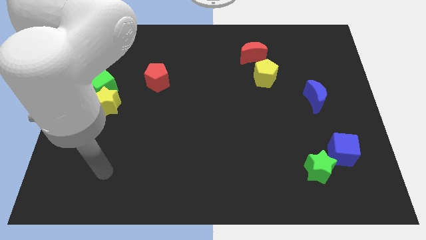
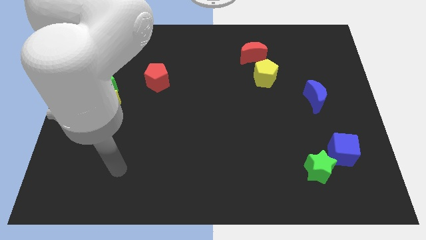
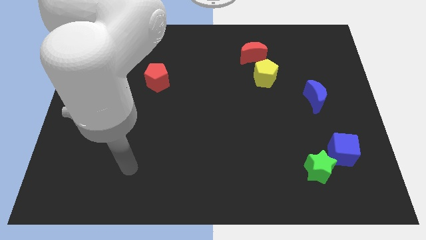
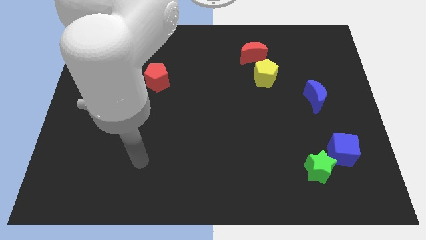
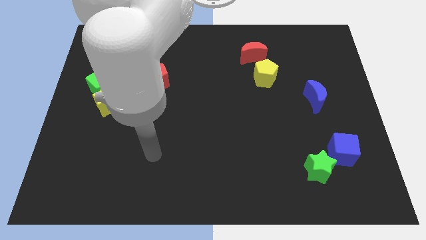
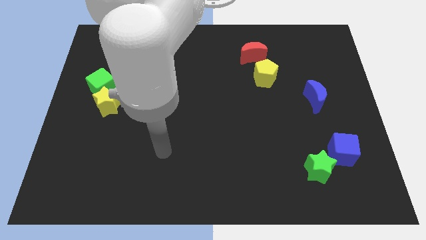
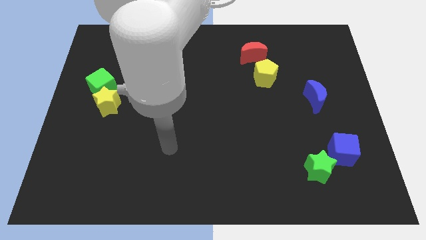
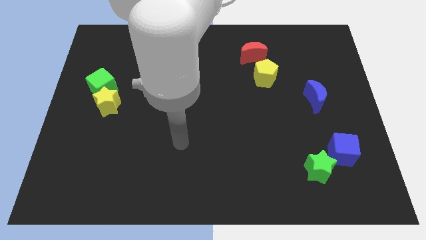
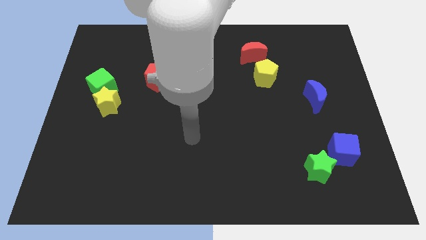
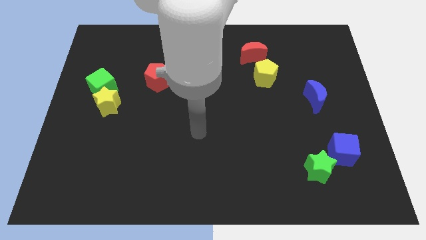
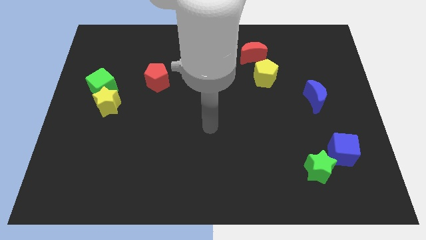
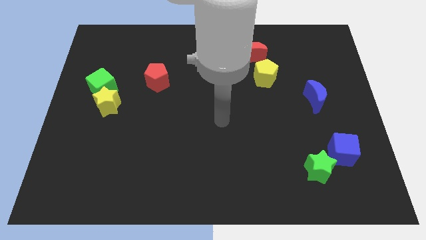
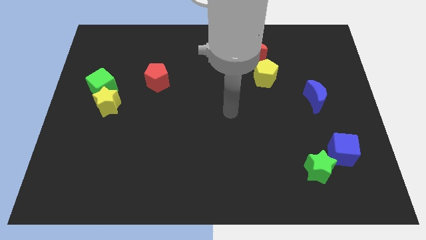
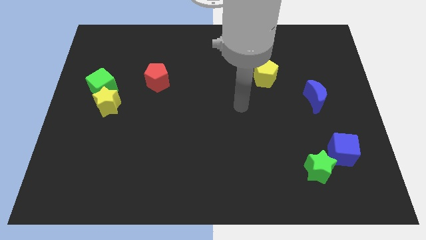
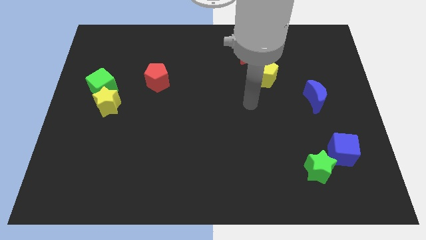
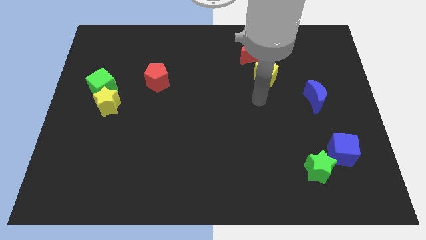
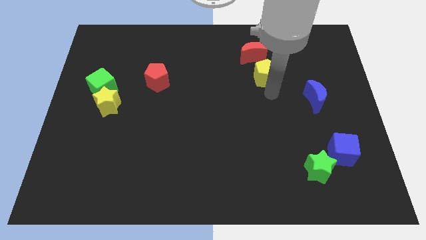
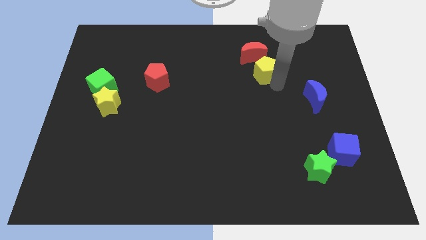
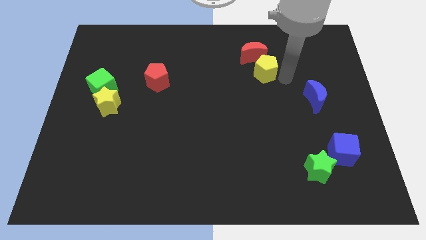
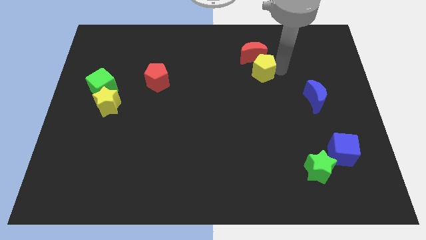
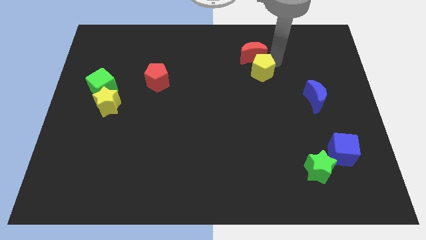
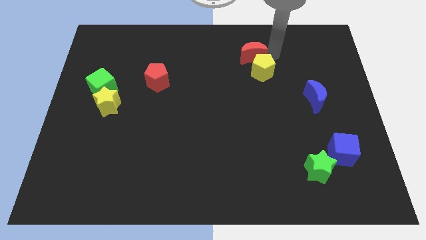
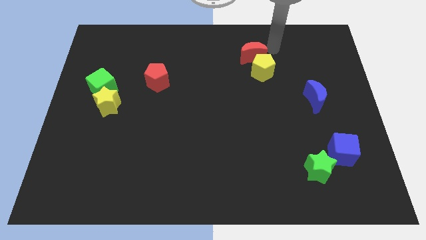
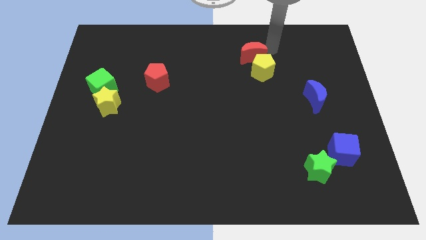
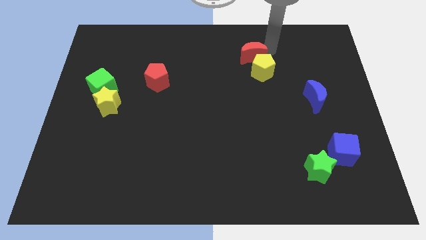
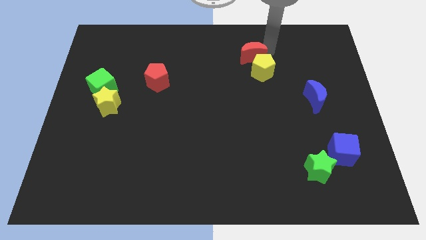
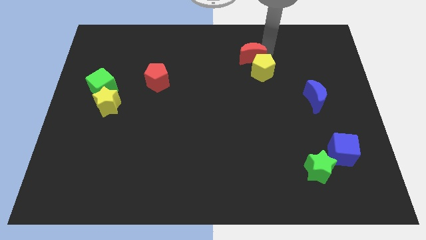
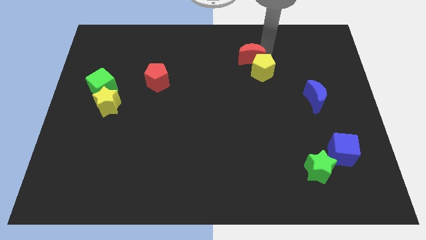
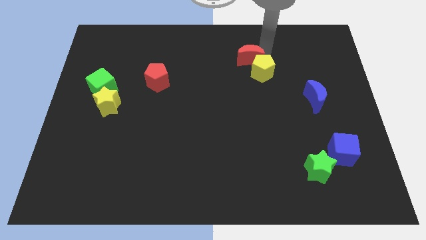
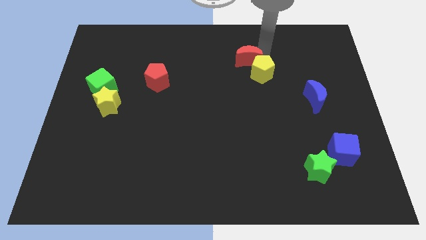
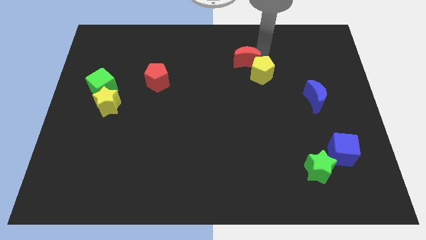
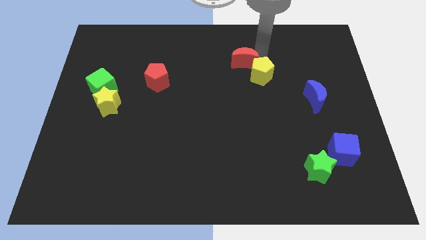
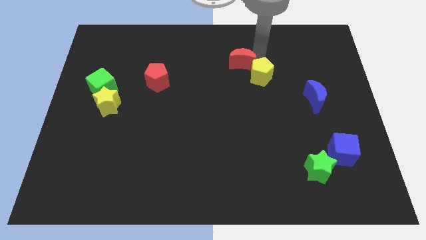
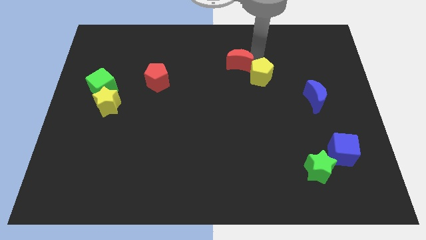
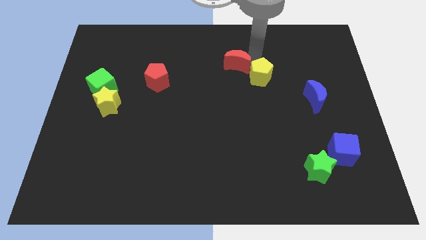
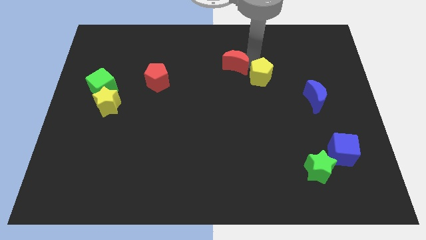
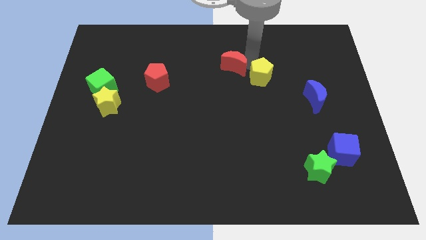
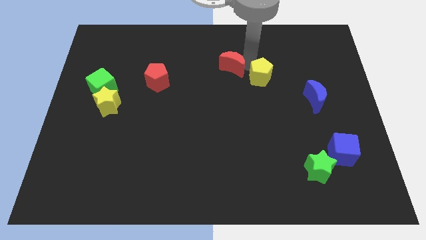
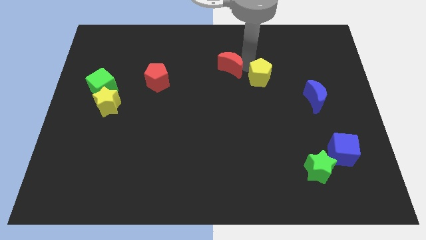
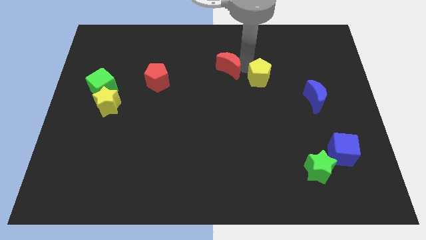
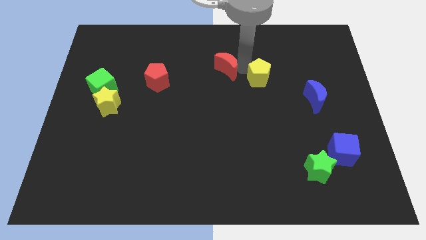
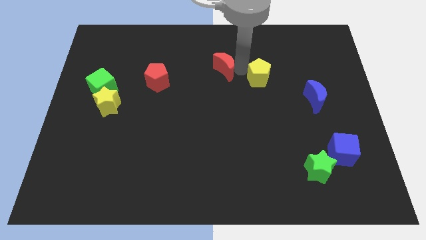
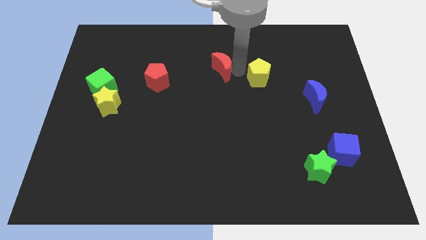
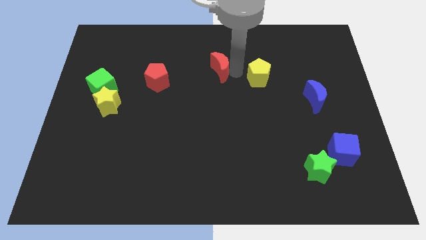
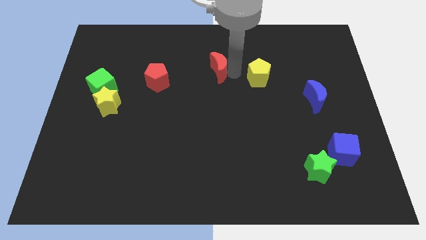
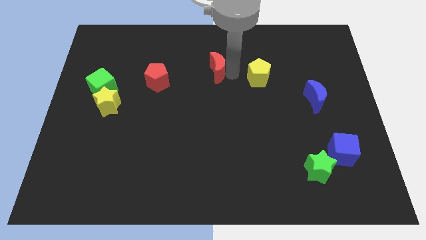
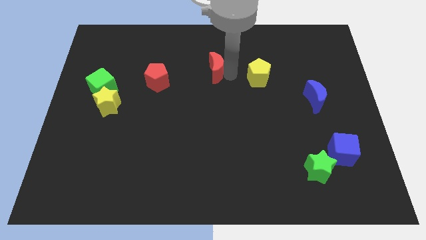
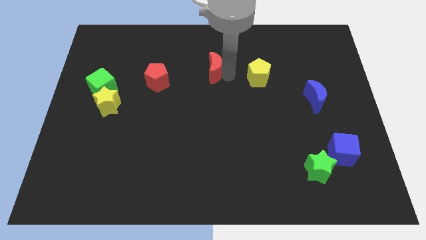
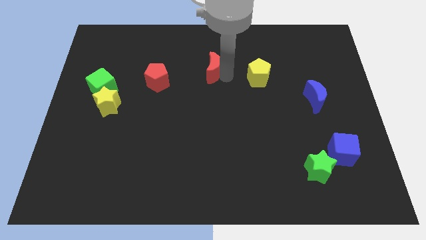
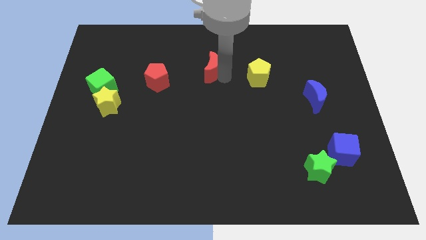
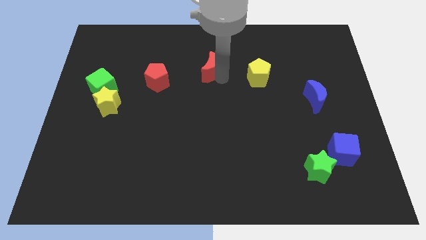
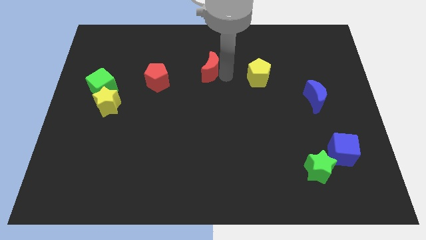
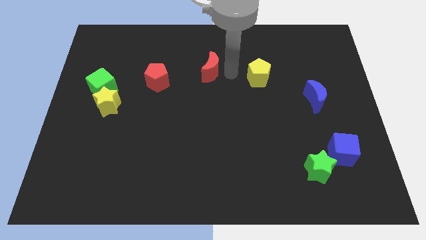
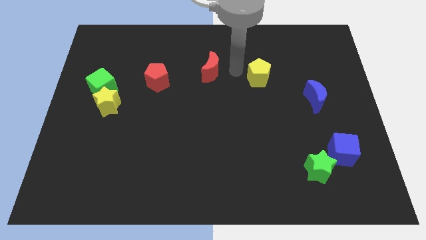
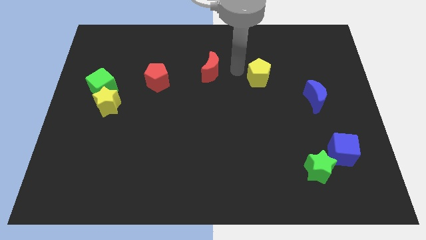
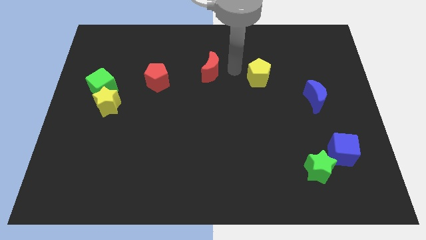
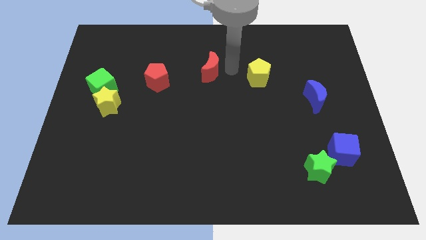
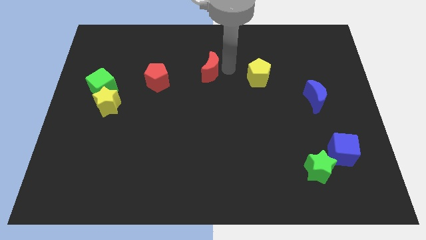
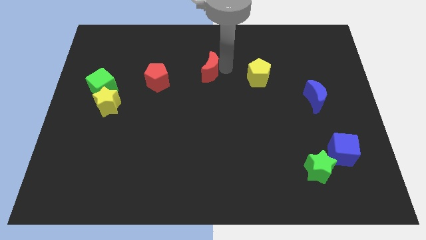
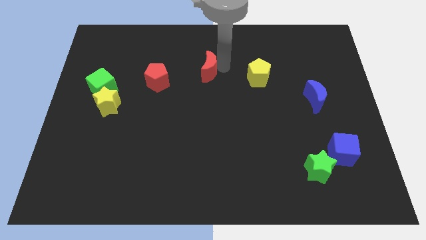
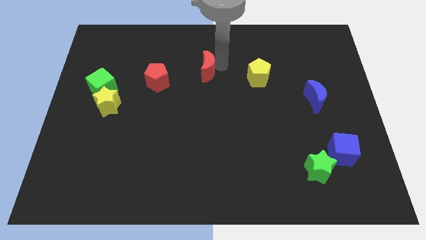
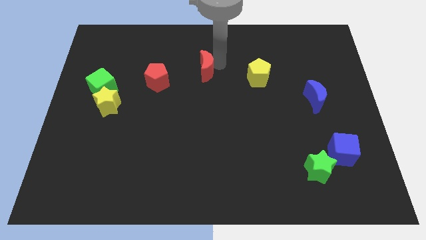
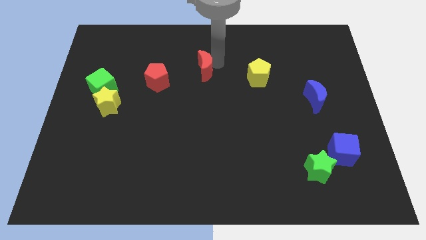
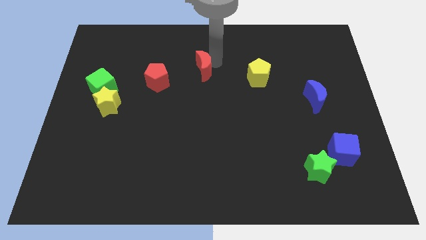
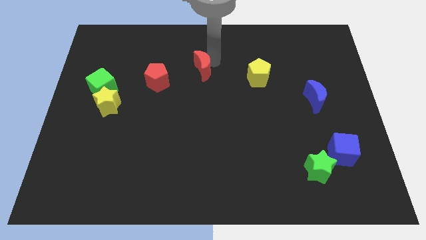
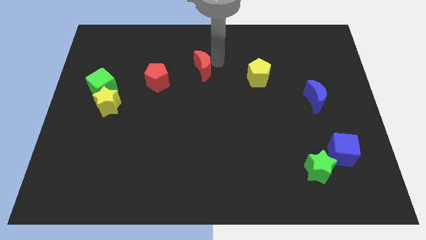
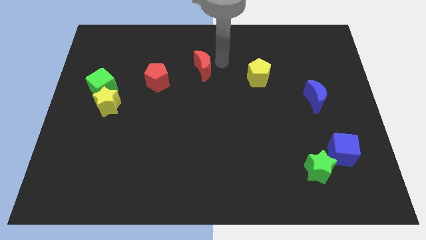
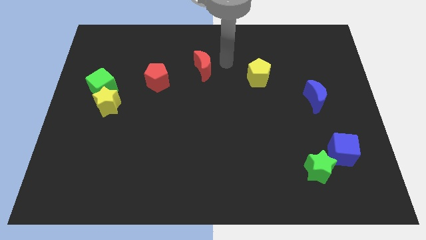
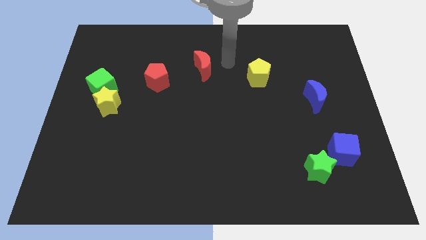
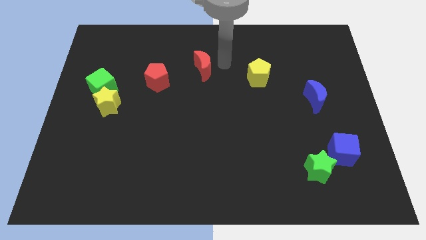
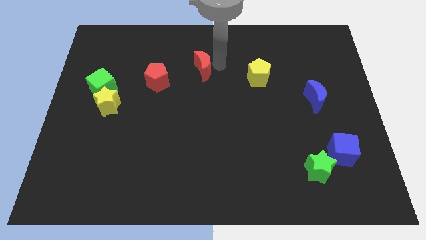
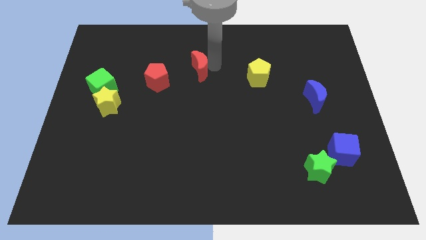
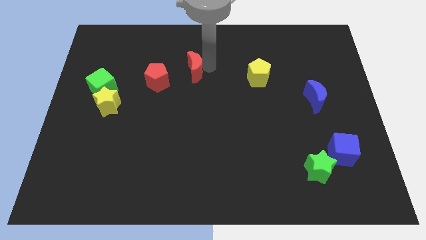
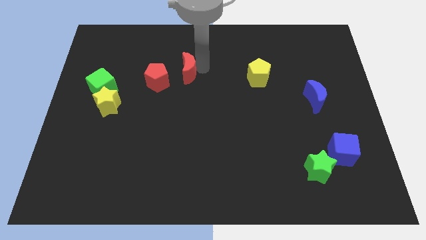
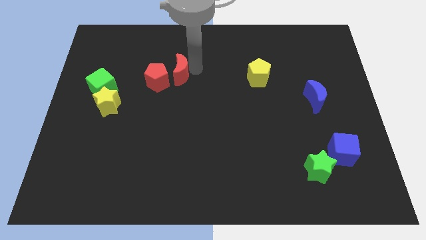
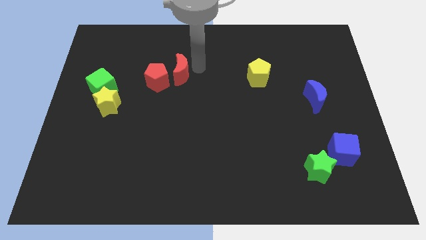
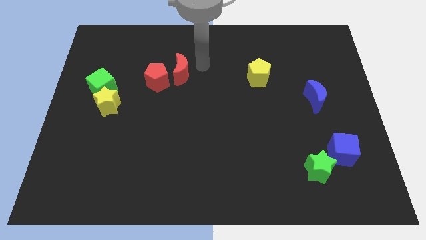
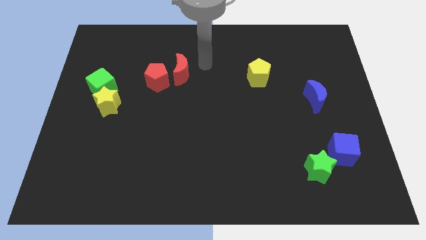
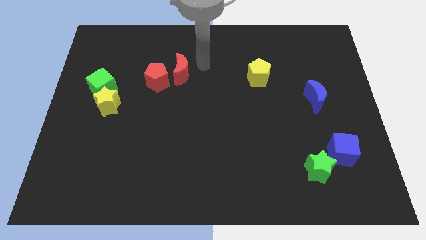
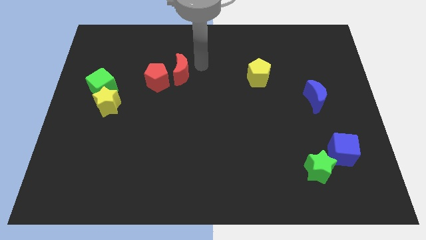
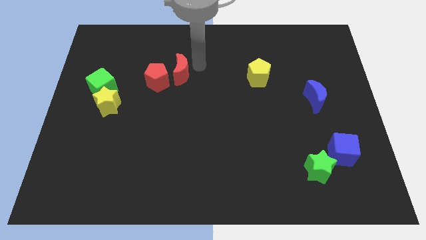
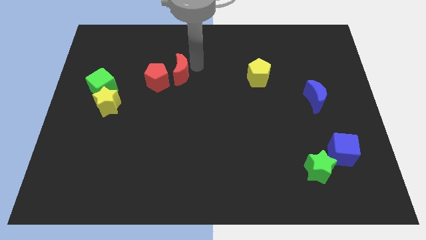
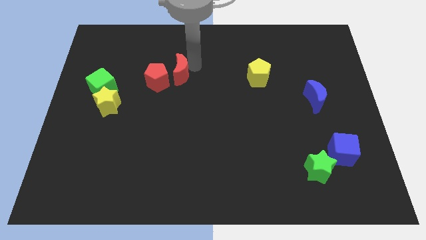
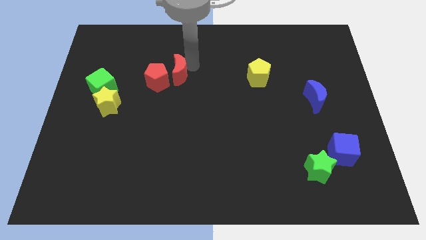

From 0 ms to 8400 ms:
put the red moon close to the red pentagon

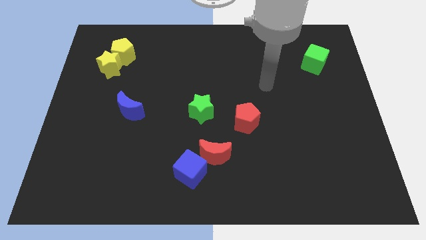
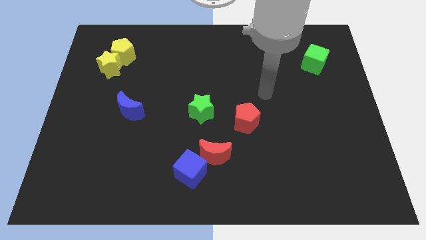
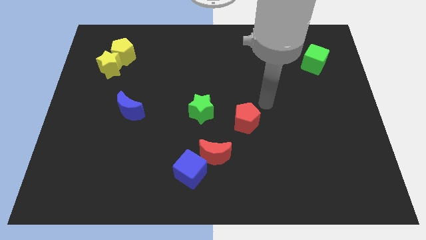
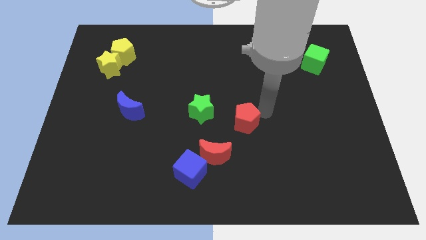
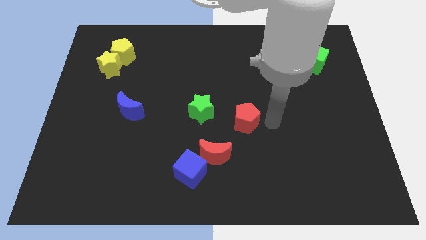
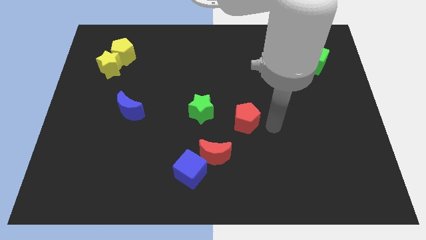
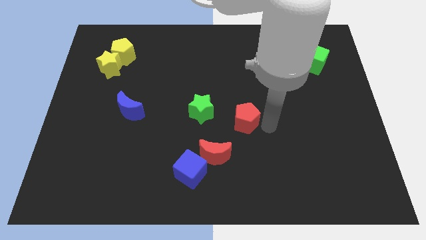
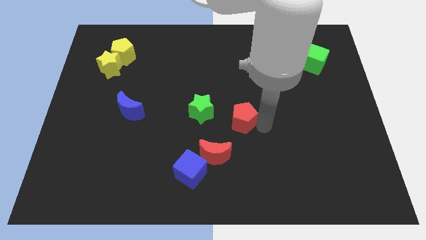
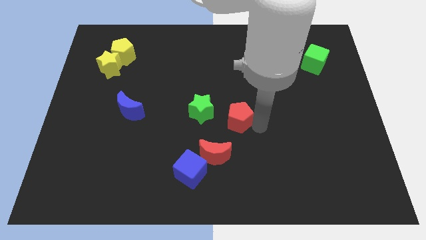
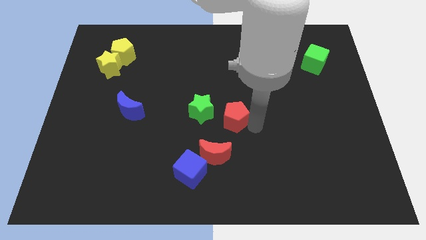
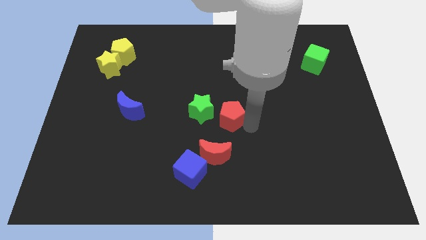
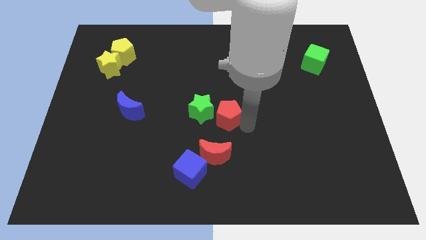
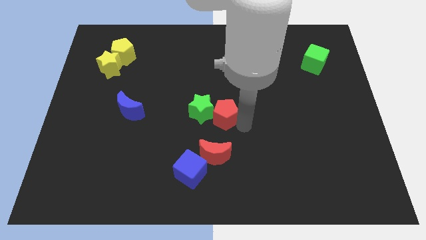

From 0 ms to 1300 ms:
slide the red pentagon to the green star
